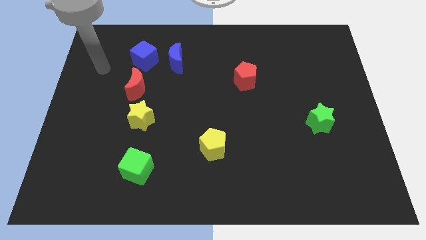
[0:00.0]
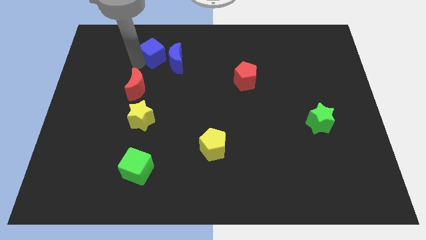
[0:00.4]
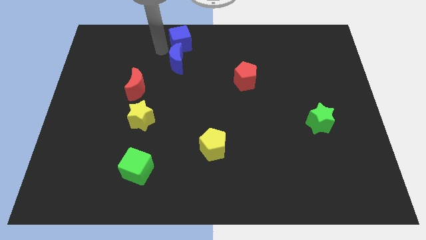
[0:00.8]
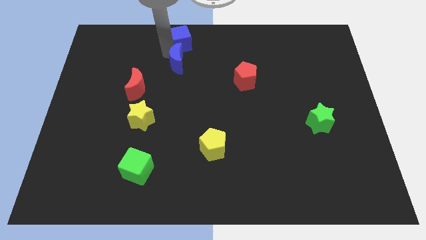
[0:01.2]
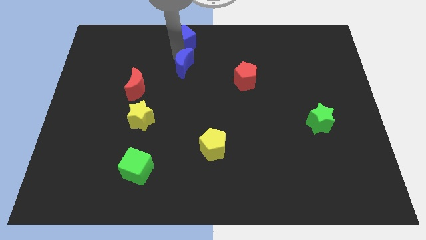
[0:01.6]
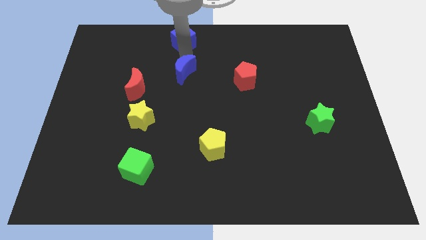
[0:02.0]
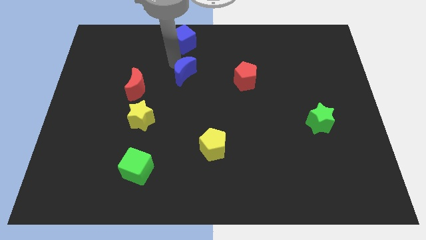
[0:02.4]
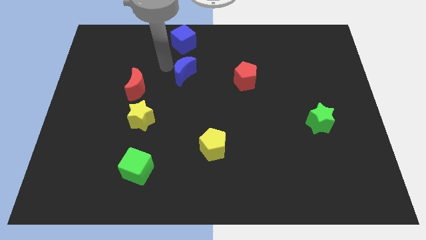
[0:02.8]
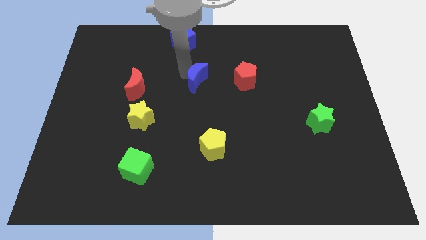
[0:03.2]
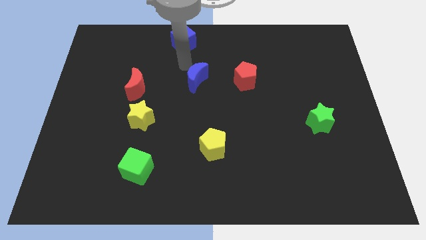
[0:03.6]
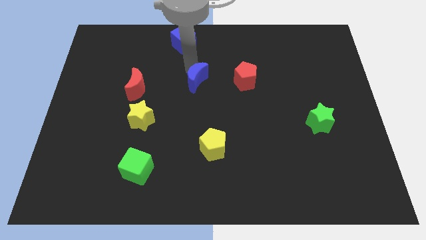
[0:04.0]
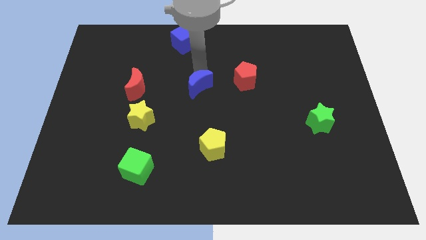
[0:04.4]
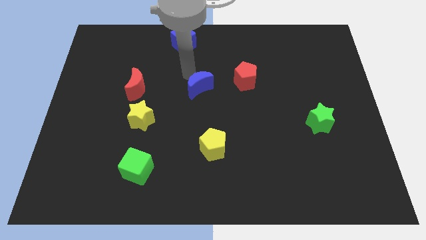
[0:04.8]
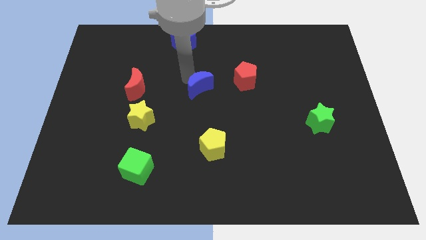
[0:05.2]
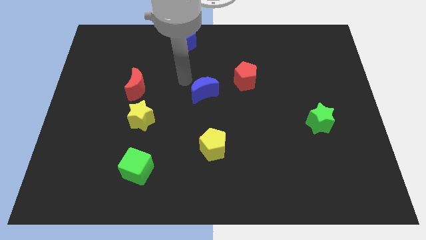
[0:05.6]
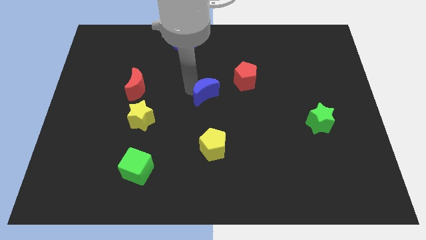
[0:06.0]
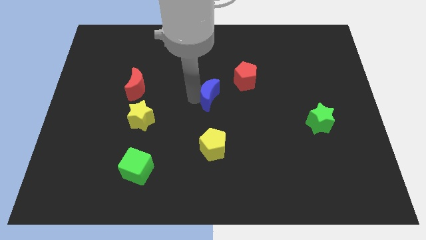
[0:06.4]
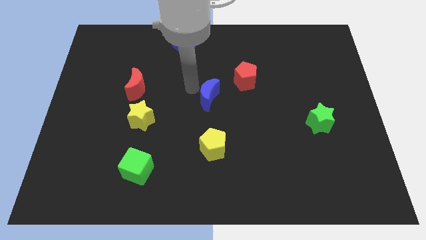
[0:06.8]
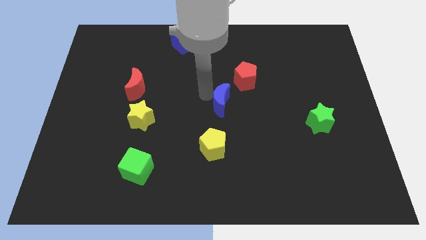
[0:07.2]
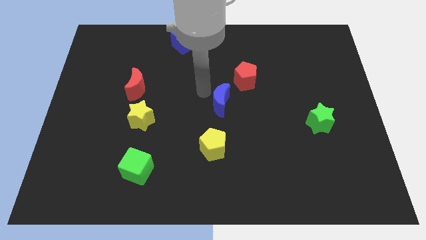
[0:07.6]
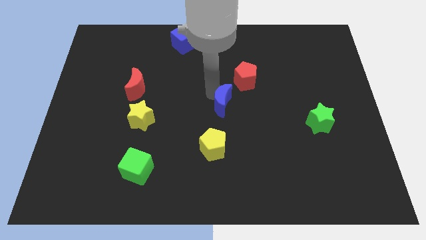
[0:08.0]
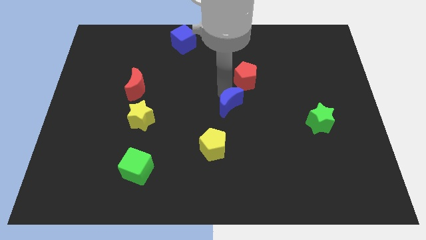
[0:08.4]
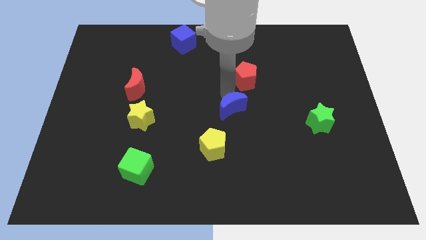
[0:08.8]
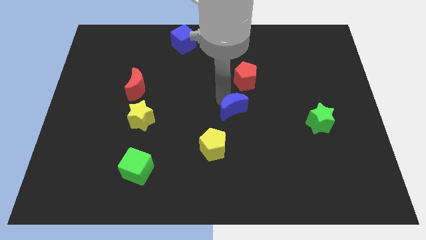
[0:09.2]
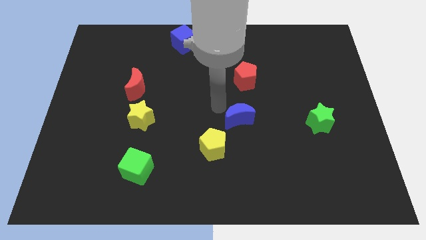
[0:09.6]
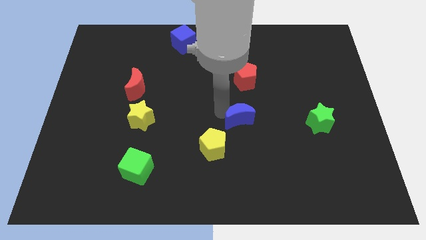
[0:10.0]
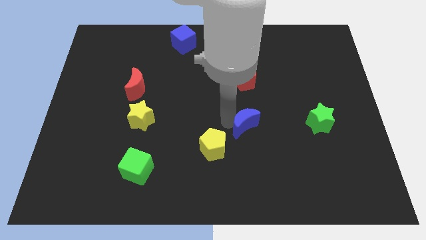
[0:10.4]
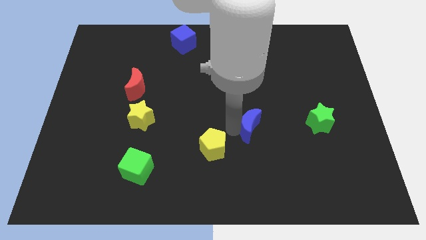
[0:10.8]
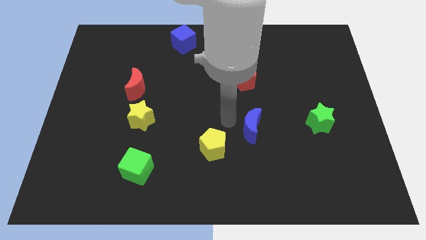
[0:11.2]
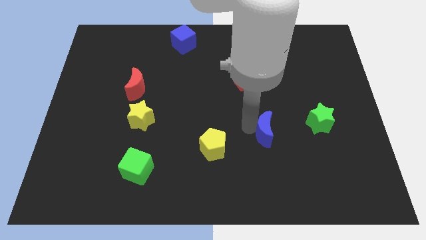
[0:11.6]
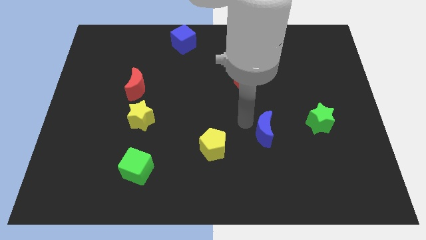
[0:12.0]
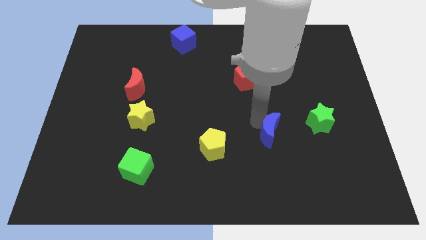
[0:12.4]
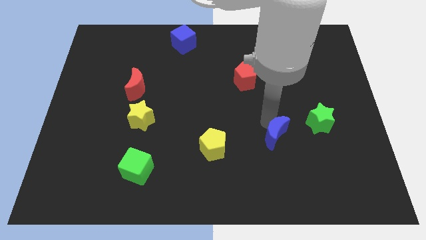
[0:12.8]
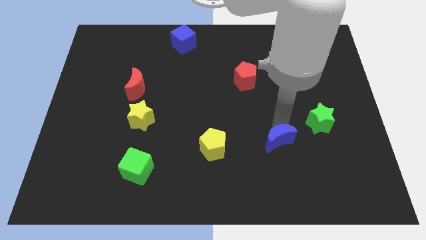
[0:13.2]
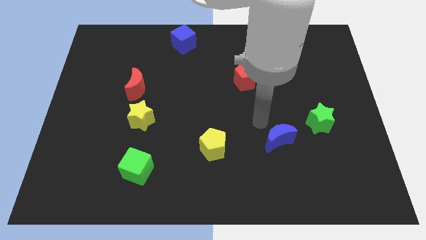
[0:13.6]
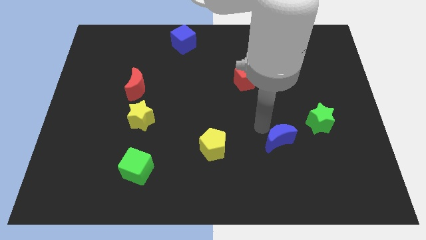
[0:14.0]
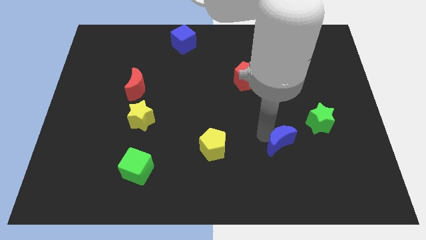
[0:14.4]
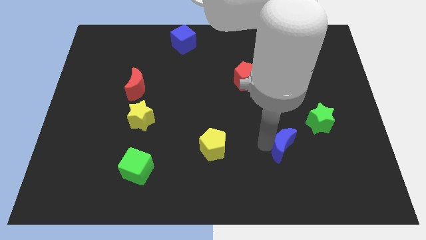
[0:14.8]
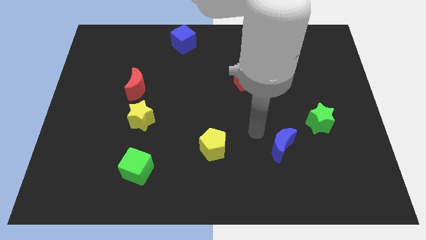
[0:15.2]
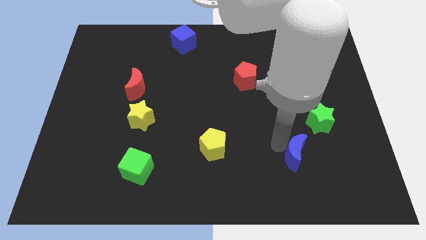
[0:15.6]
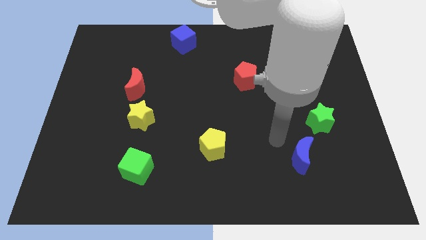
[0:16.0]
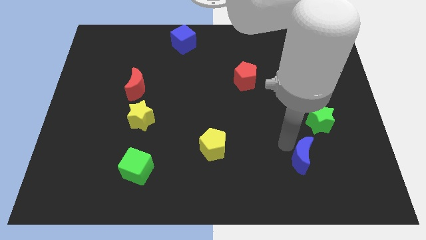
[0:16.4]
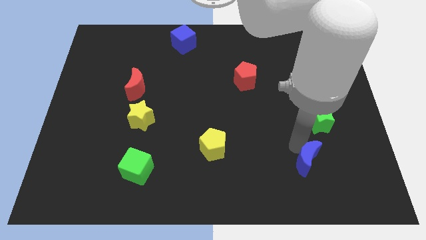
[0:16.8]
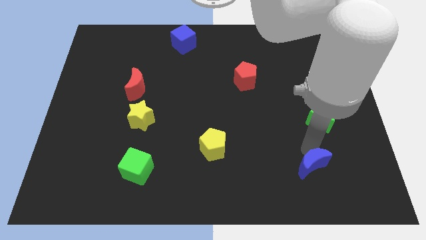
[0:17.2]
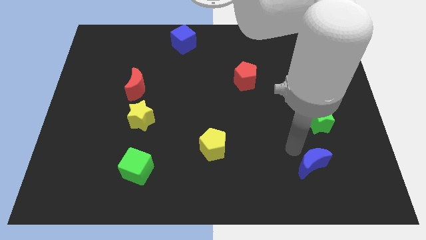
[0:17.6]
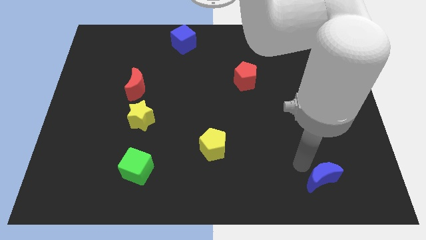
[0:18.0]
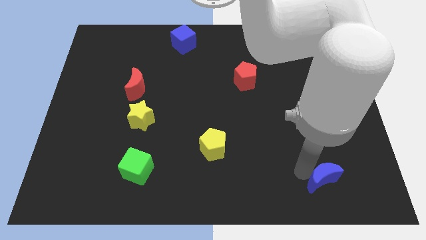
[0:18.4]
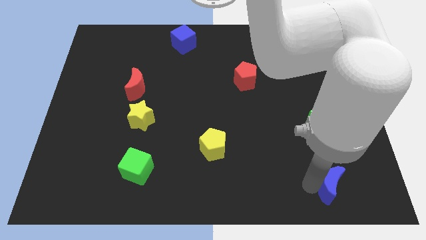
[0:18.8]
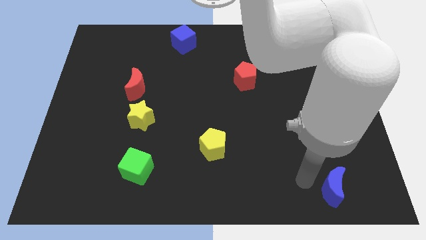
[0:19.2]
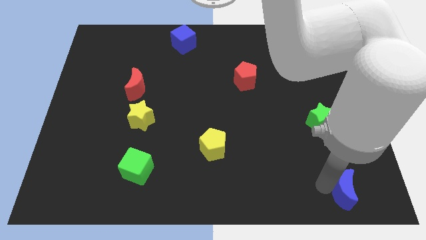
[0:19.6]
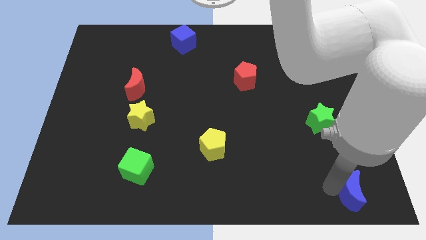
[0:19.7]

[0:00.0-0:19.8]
push the blue moon to the bottom right

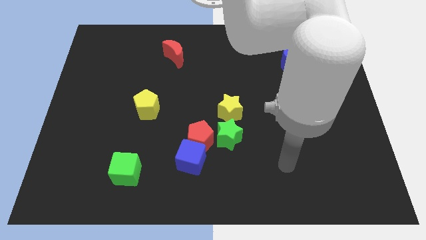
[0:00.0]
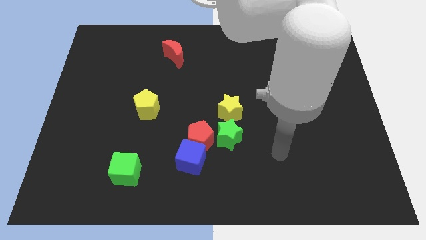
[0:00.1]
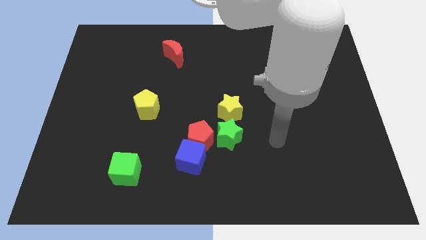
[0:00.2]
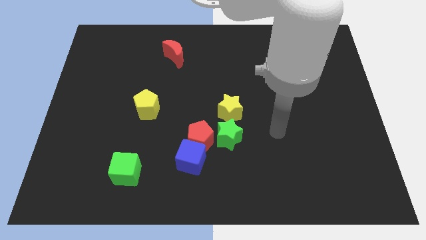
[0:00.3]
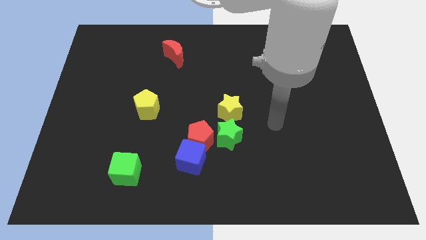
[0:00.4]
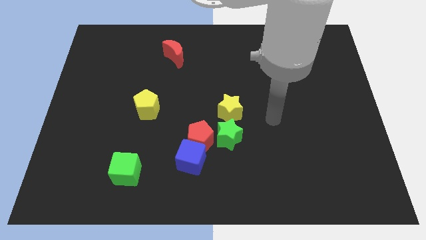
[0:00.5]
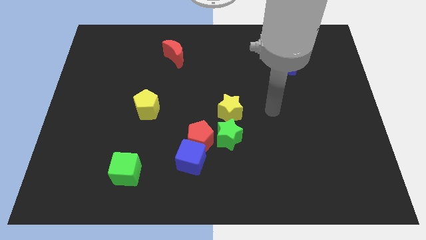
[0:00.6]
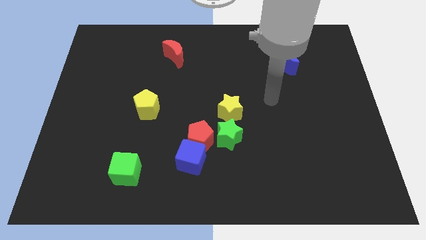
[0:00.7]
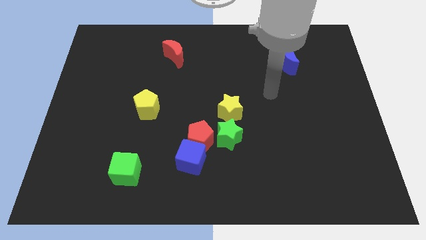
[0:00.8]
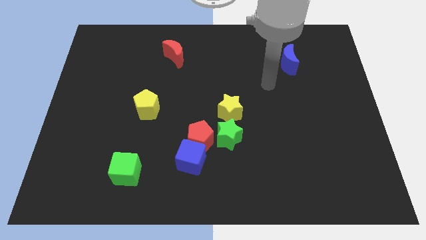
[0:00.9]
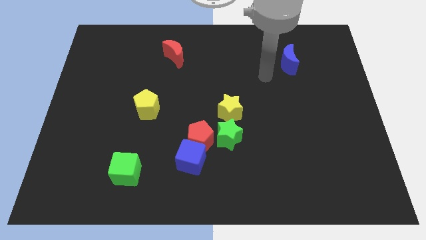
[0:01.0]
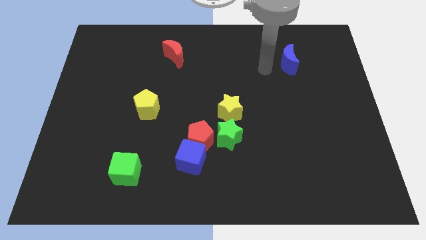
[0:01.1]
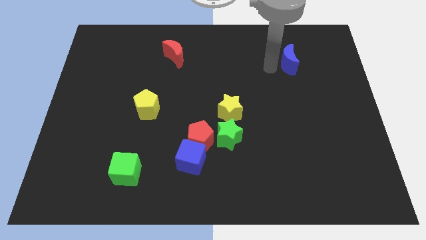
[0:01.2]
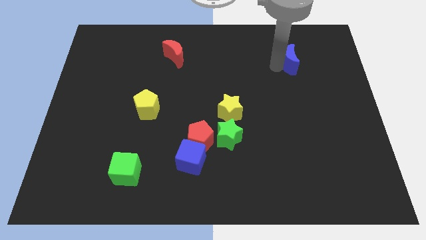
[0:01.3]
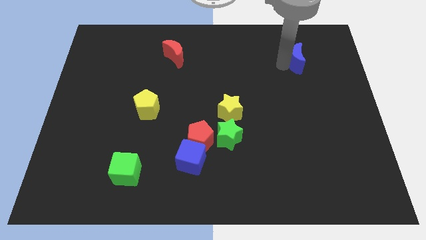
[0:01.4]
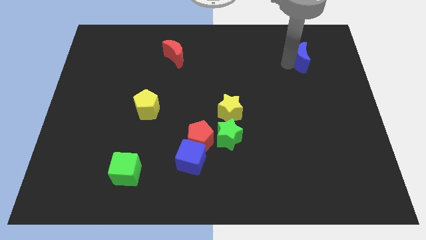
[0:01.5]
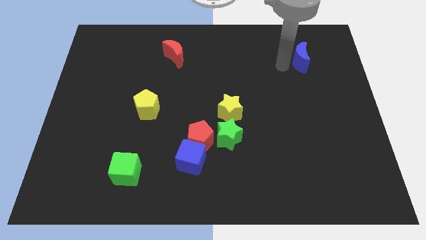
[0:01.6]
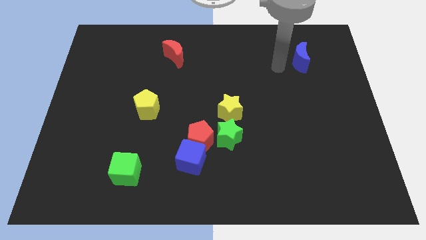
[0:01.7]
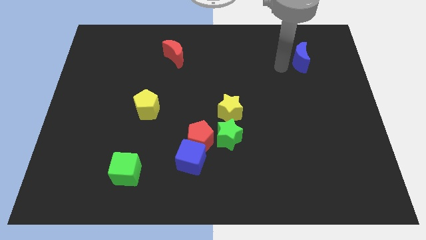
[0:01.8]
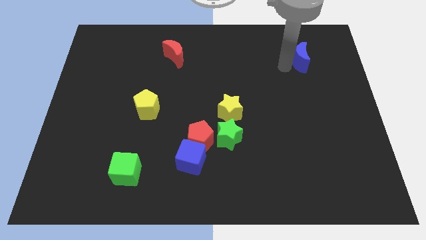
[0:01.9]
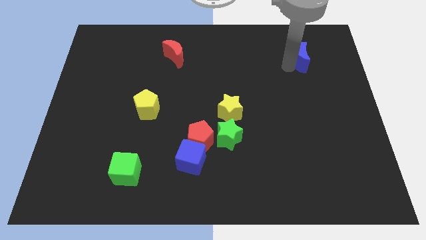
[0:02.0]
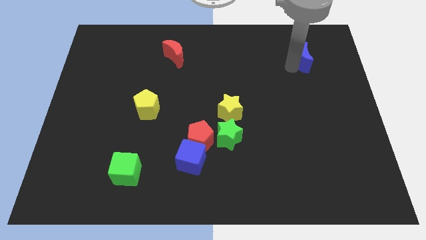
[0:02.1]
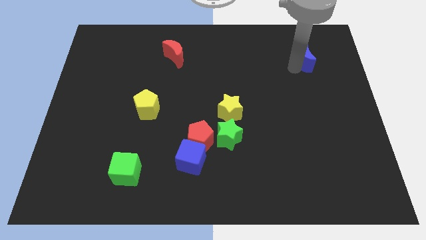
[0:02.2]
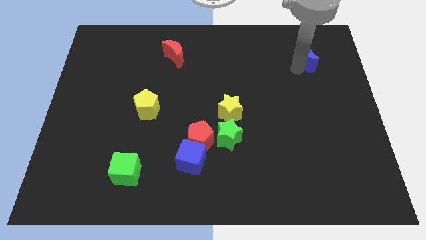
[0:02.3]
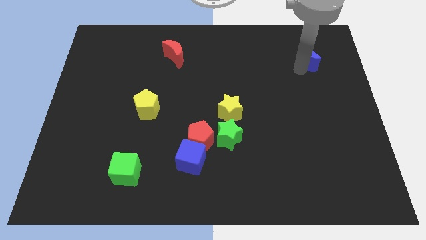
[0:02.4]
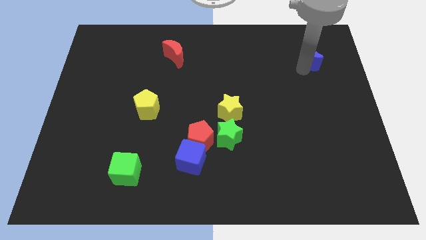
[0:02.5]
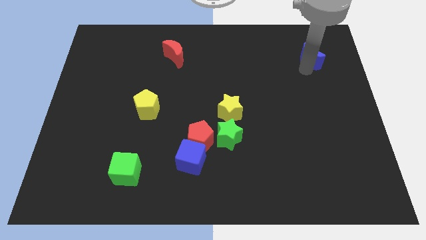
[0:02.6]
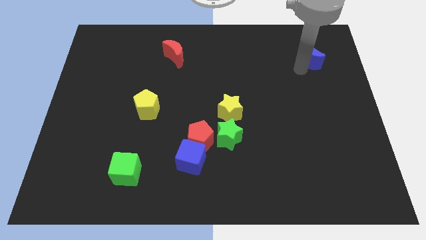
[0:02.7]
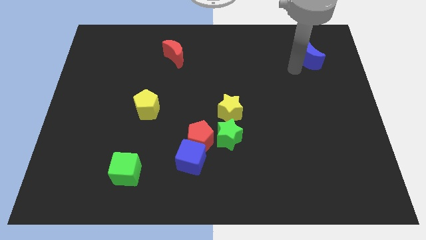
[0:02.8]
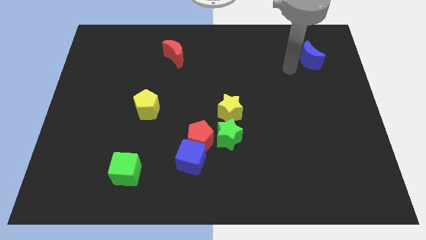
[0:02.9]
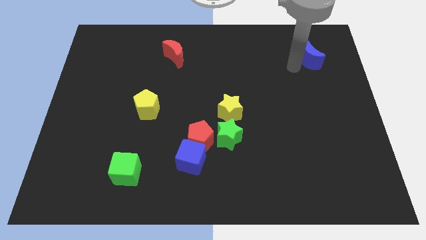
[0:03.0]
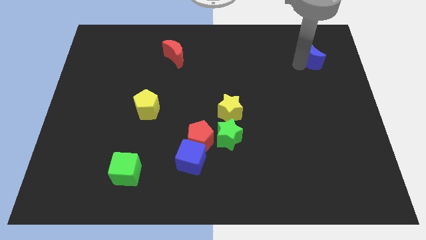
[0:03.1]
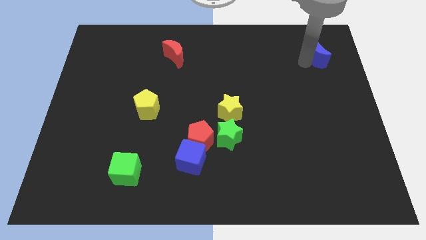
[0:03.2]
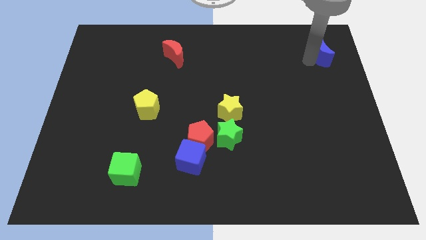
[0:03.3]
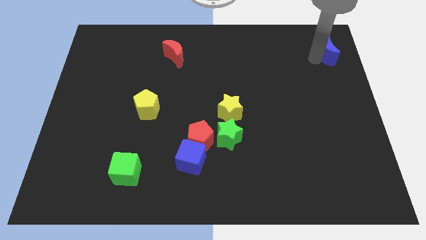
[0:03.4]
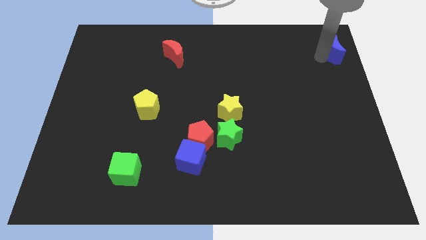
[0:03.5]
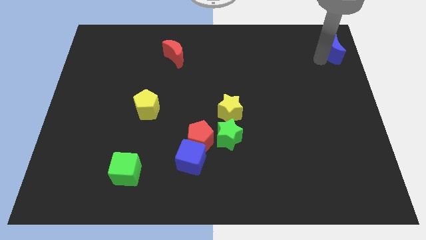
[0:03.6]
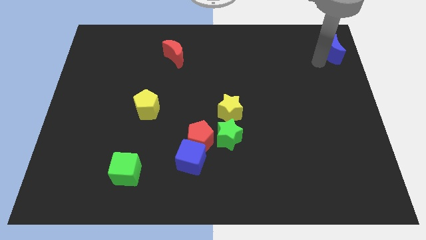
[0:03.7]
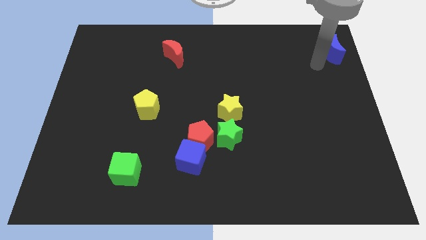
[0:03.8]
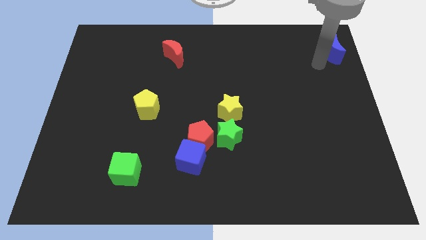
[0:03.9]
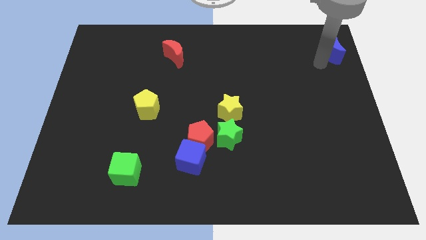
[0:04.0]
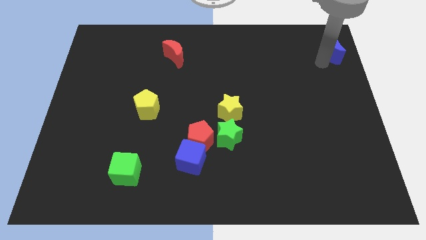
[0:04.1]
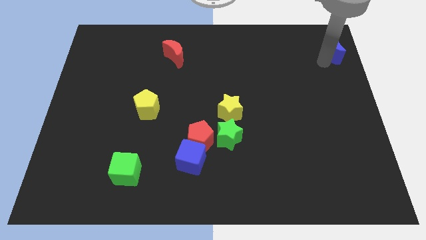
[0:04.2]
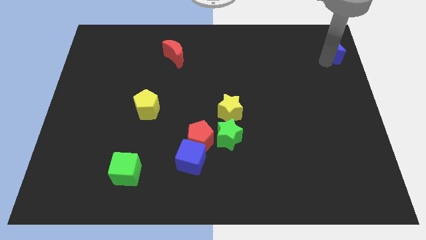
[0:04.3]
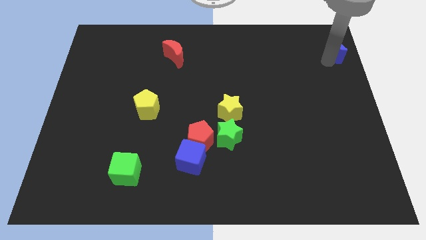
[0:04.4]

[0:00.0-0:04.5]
put the blue moon to the top right of the board
